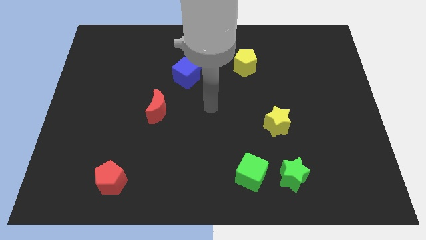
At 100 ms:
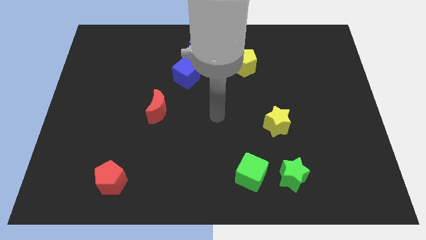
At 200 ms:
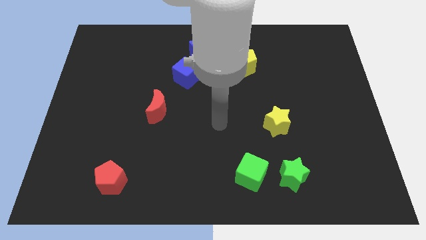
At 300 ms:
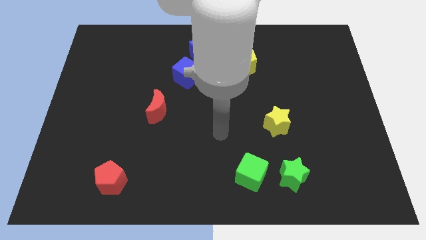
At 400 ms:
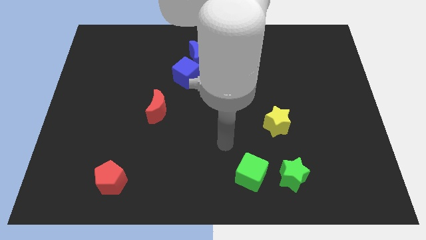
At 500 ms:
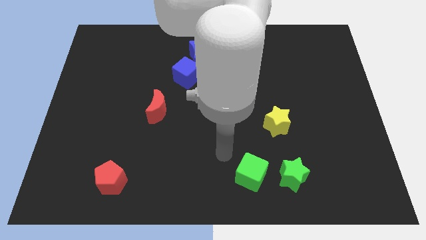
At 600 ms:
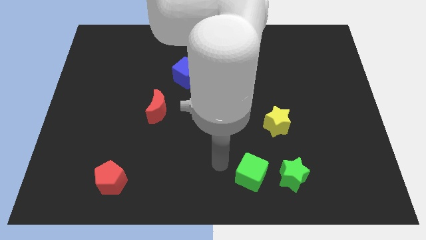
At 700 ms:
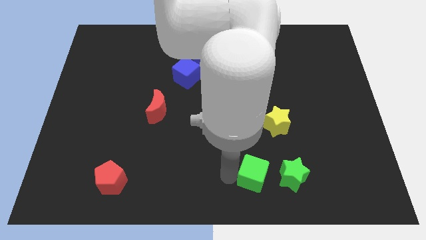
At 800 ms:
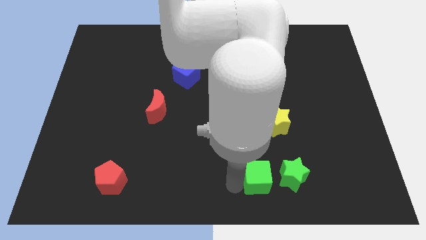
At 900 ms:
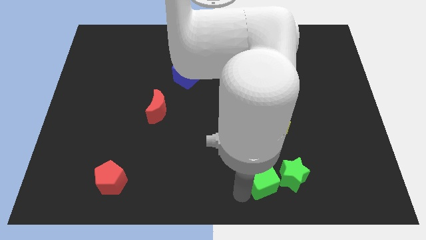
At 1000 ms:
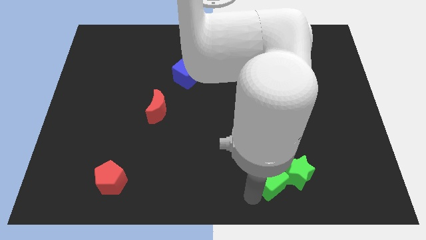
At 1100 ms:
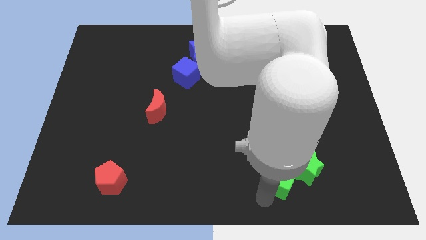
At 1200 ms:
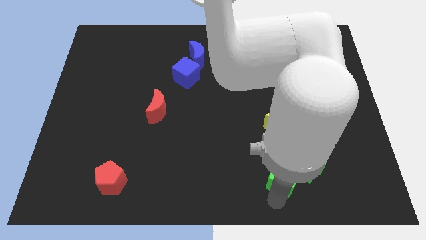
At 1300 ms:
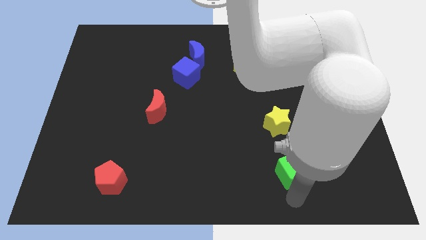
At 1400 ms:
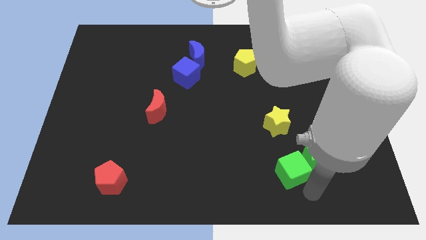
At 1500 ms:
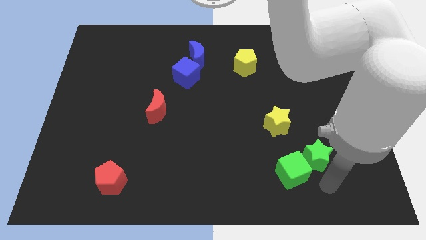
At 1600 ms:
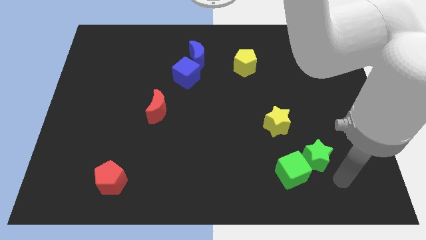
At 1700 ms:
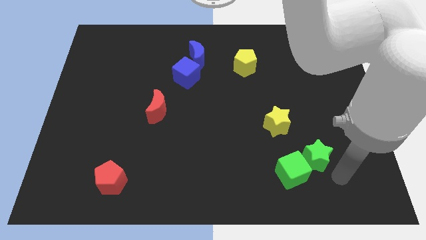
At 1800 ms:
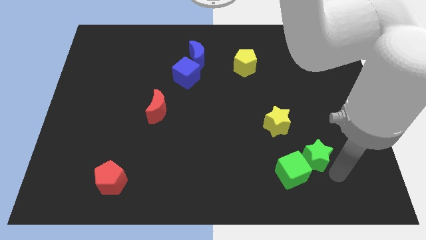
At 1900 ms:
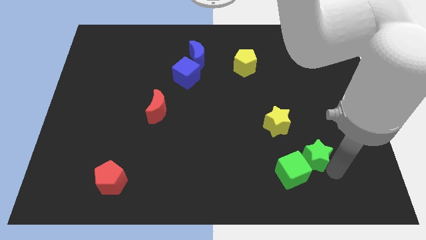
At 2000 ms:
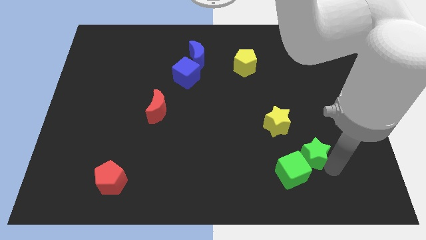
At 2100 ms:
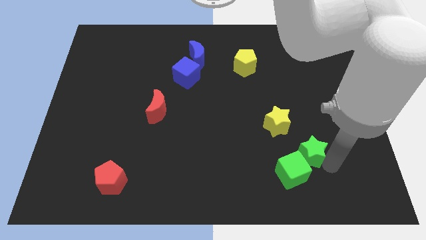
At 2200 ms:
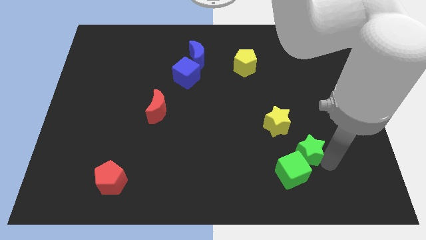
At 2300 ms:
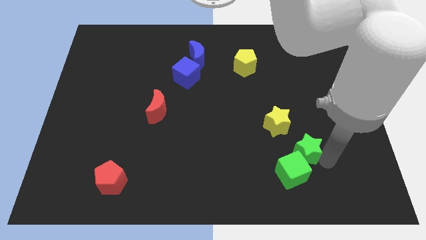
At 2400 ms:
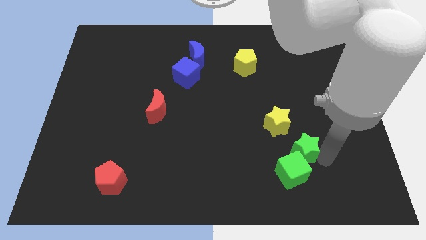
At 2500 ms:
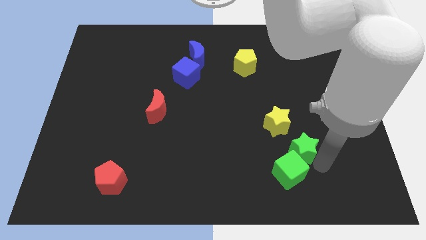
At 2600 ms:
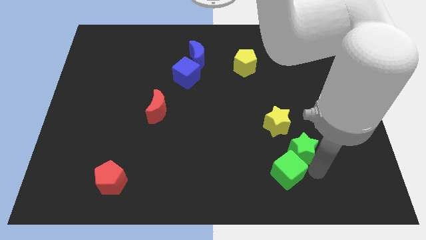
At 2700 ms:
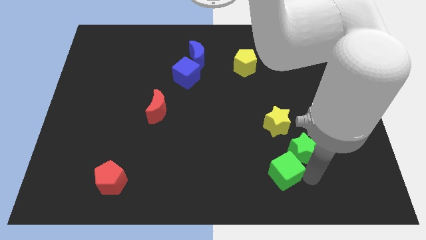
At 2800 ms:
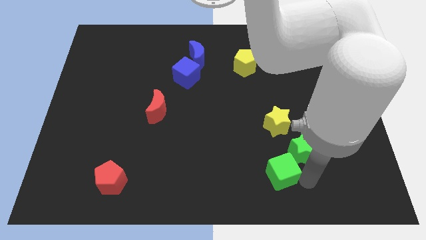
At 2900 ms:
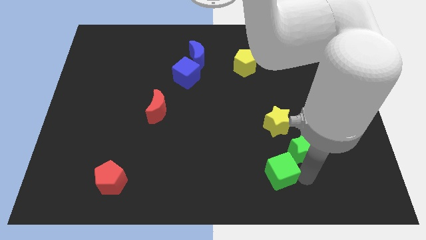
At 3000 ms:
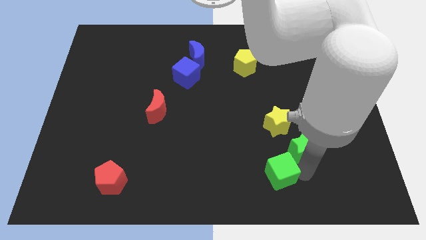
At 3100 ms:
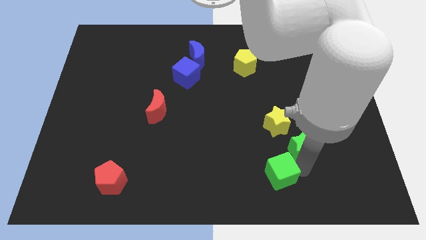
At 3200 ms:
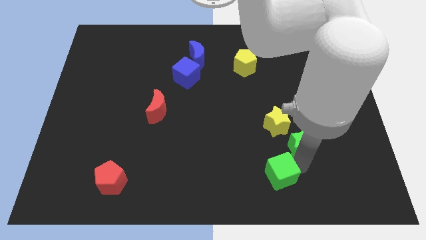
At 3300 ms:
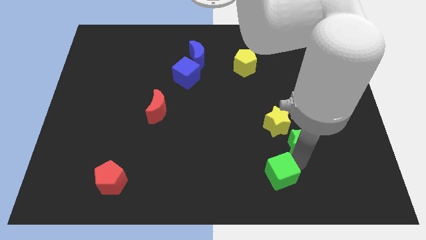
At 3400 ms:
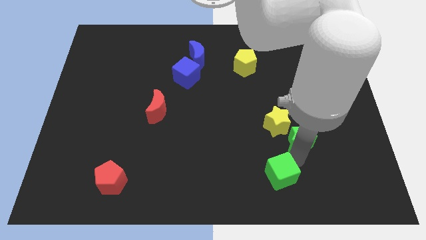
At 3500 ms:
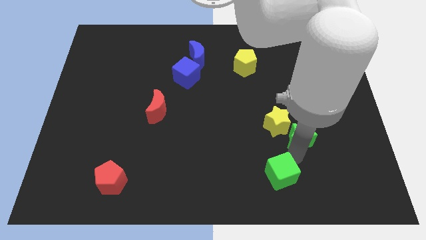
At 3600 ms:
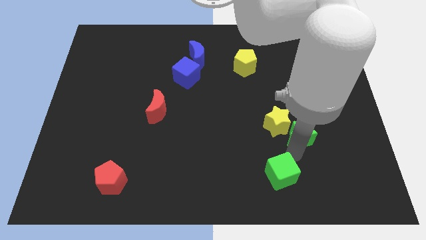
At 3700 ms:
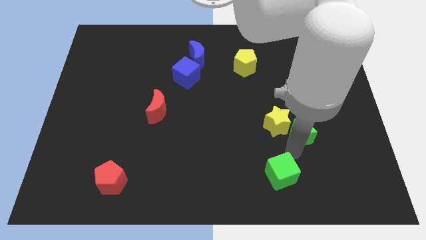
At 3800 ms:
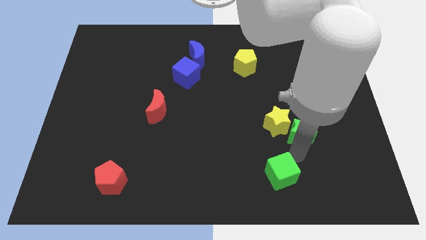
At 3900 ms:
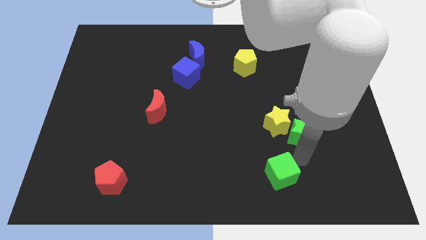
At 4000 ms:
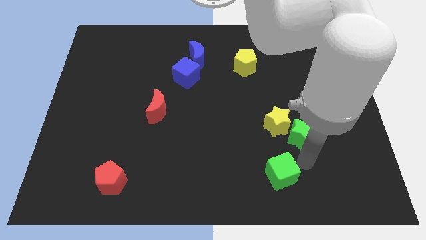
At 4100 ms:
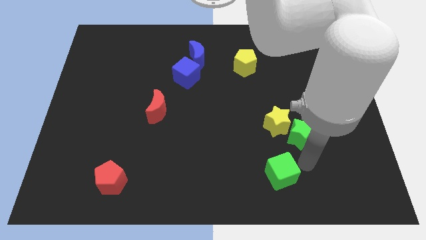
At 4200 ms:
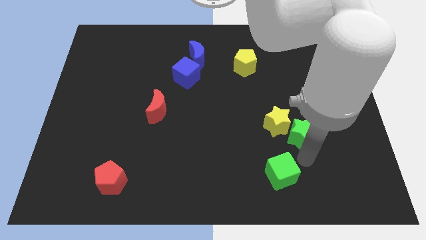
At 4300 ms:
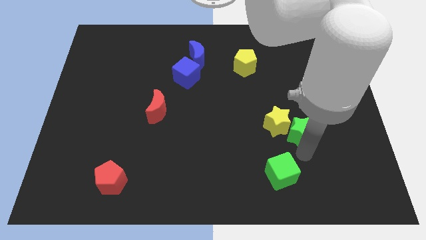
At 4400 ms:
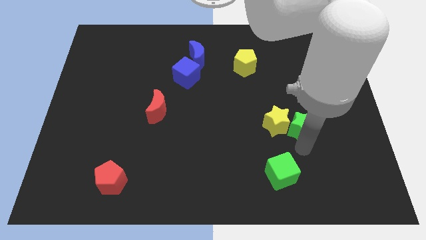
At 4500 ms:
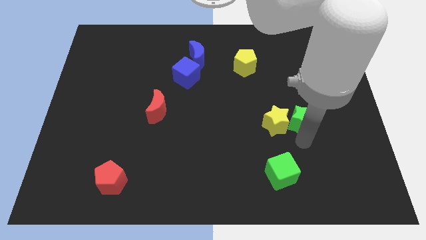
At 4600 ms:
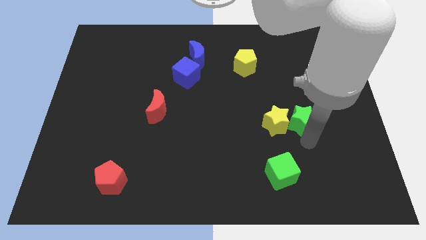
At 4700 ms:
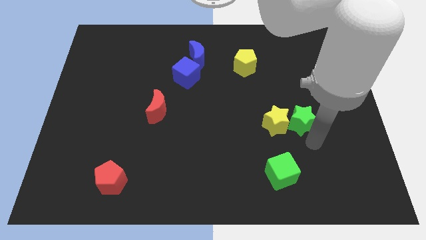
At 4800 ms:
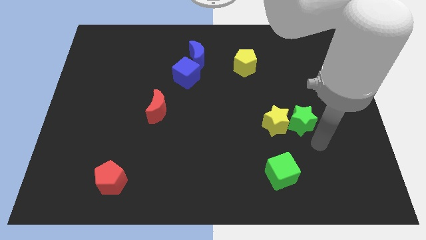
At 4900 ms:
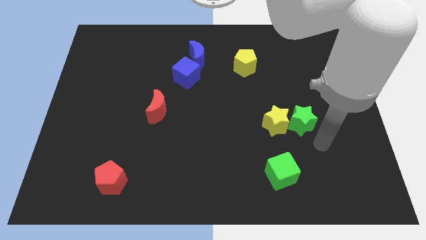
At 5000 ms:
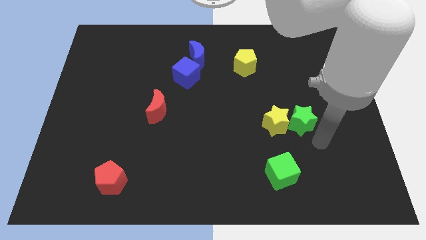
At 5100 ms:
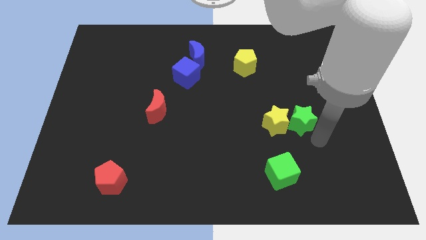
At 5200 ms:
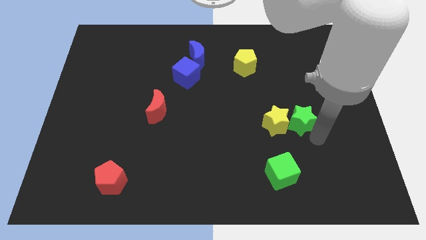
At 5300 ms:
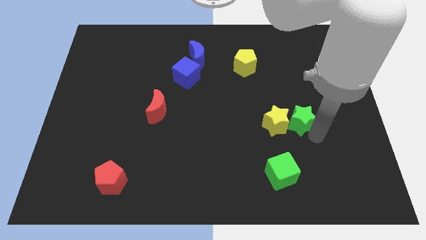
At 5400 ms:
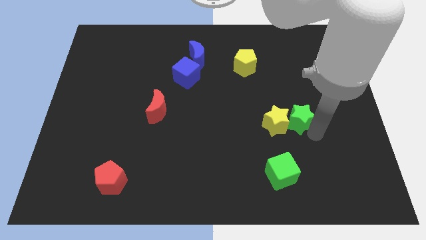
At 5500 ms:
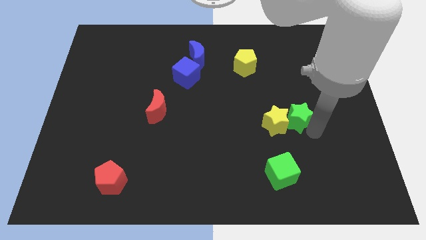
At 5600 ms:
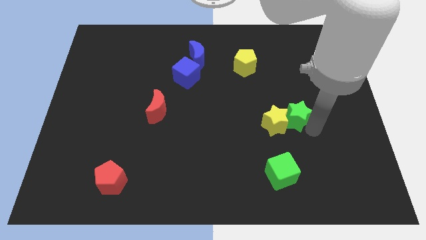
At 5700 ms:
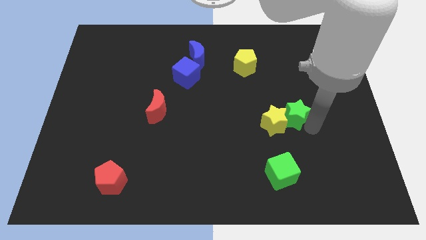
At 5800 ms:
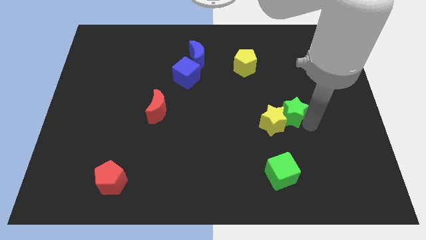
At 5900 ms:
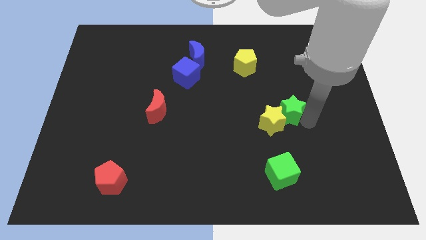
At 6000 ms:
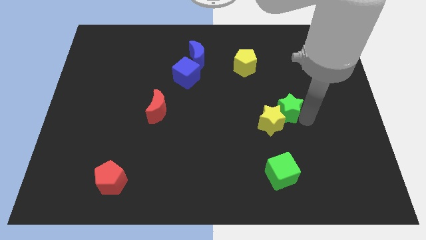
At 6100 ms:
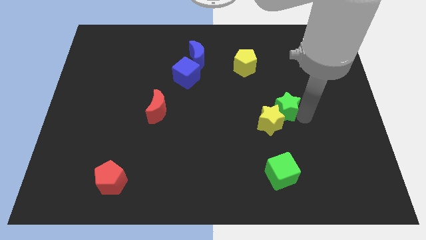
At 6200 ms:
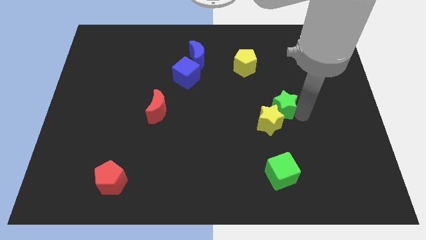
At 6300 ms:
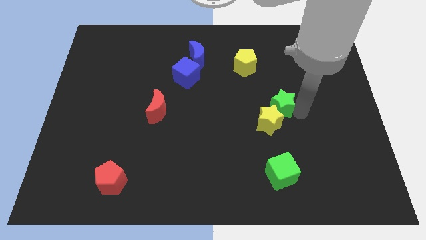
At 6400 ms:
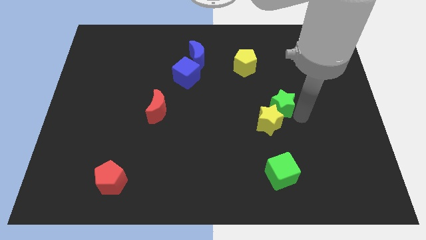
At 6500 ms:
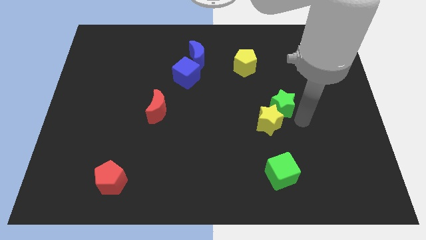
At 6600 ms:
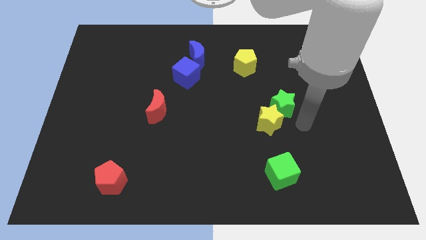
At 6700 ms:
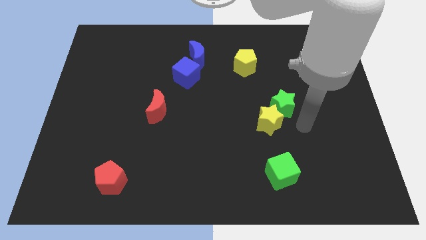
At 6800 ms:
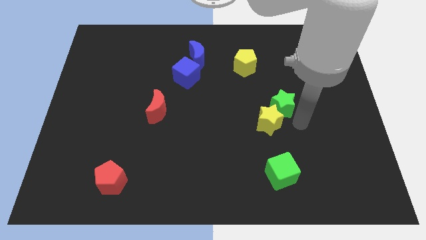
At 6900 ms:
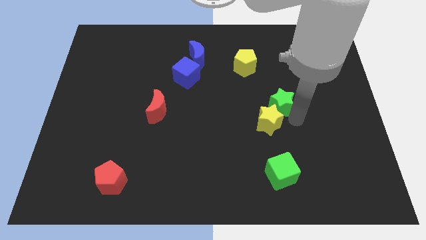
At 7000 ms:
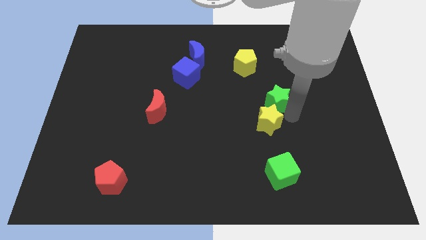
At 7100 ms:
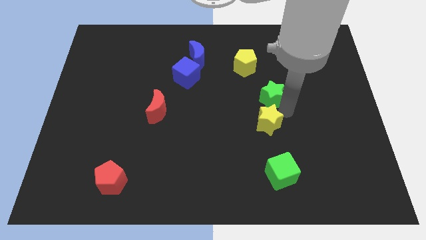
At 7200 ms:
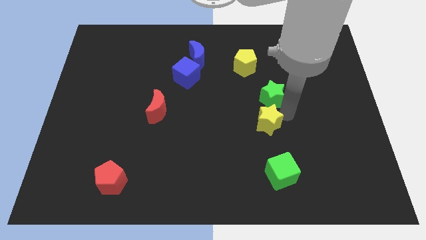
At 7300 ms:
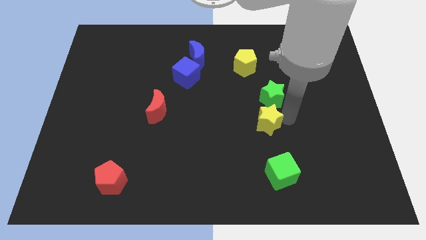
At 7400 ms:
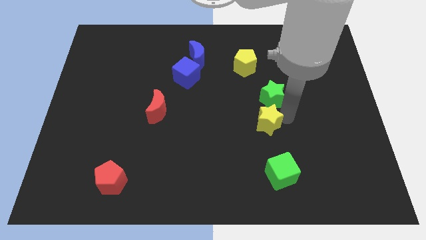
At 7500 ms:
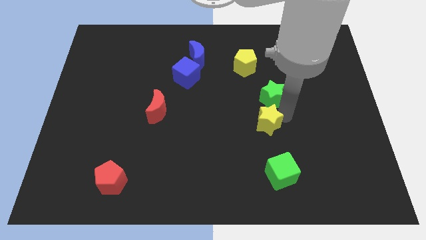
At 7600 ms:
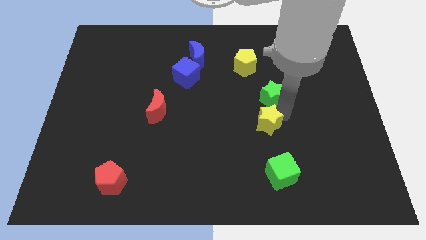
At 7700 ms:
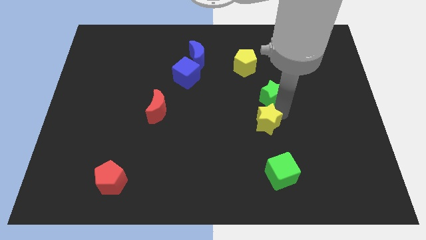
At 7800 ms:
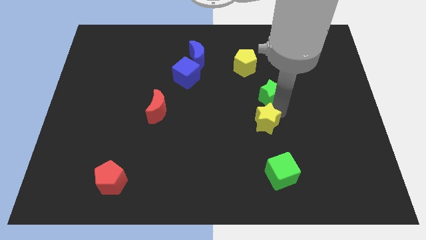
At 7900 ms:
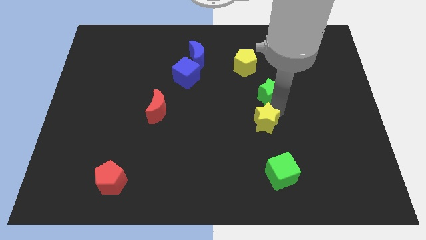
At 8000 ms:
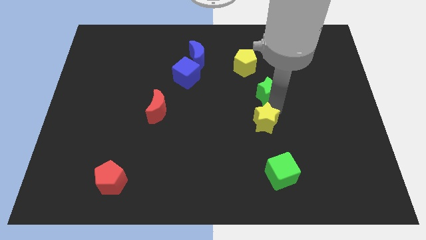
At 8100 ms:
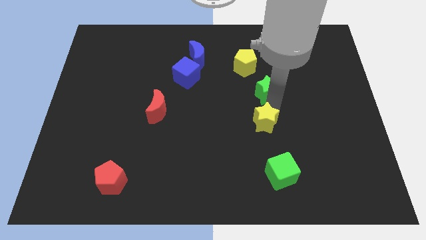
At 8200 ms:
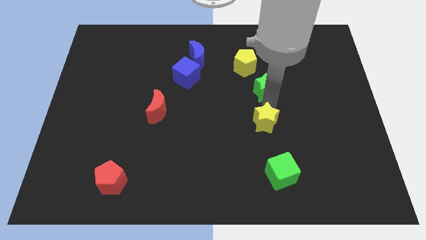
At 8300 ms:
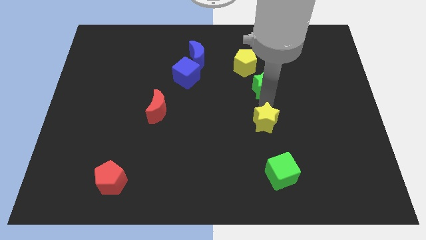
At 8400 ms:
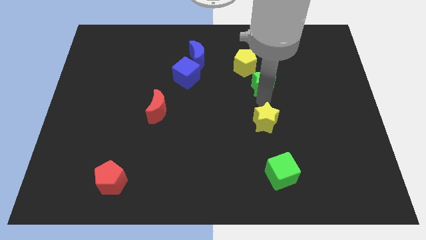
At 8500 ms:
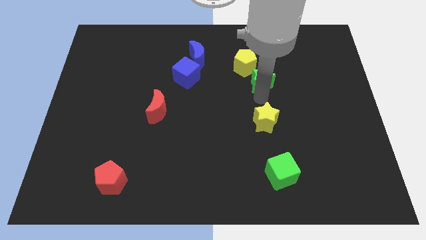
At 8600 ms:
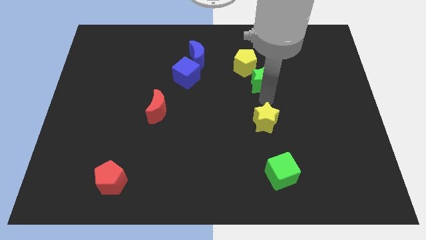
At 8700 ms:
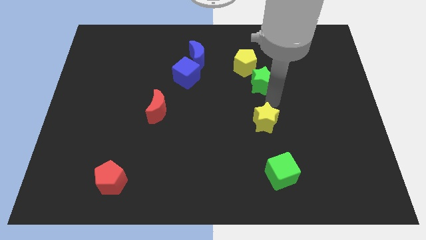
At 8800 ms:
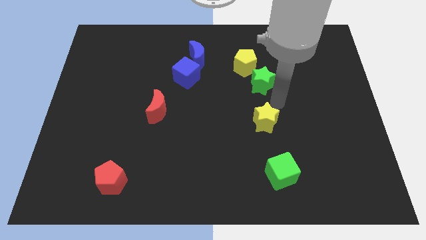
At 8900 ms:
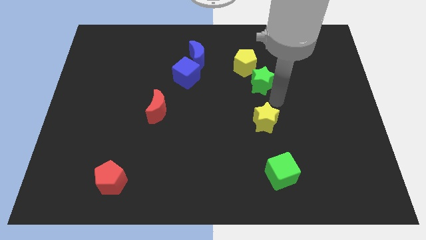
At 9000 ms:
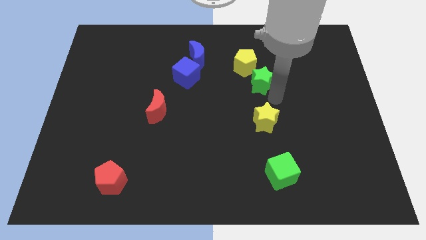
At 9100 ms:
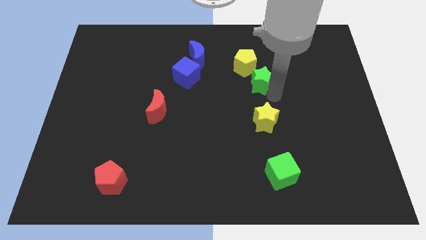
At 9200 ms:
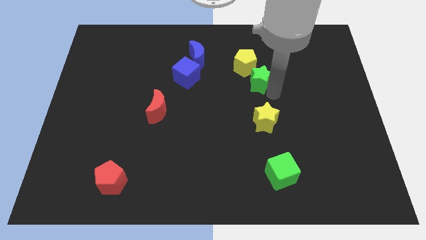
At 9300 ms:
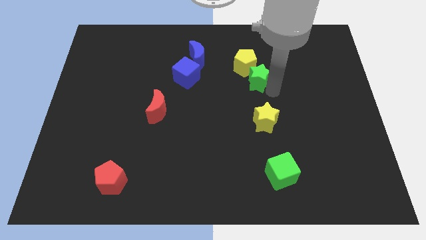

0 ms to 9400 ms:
push the green star close to the yellow pentagon
